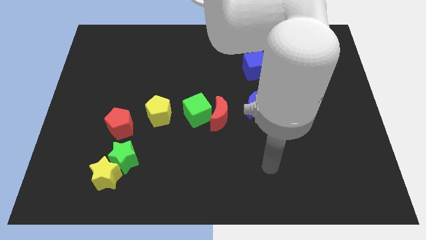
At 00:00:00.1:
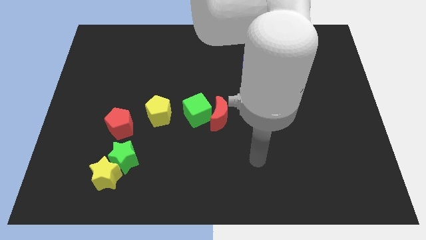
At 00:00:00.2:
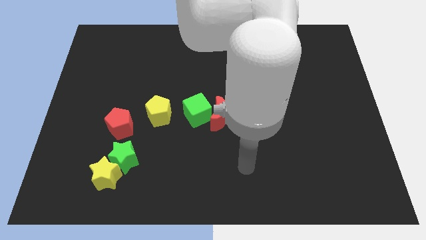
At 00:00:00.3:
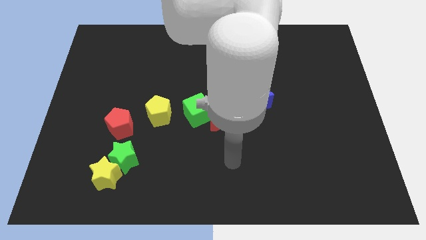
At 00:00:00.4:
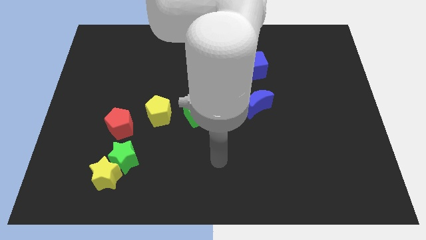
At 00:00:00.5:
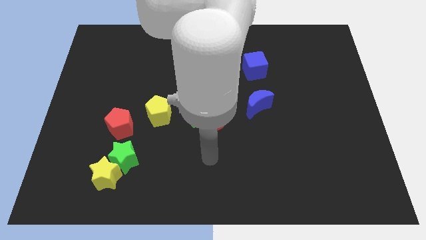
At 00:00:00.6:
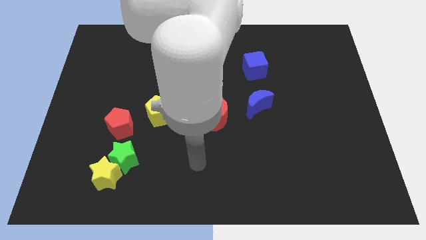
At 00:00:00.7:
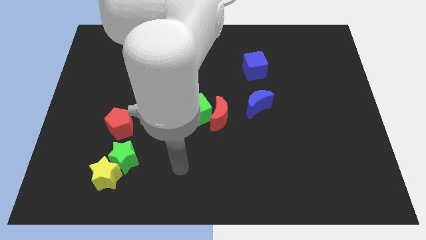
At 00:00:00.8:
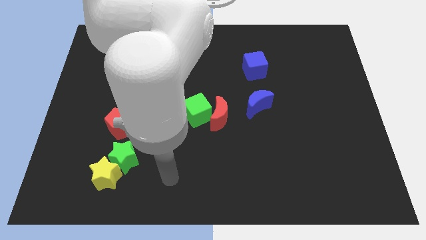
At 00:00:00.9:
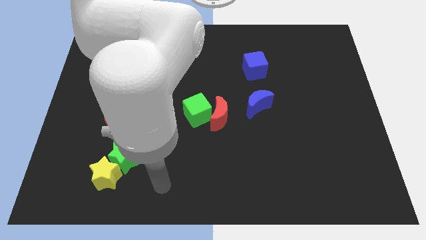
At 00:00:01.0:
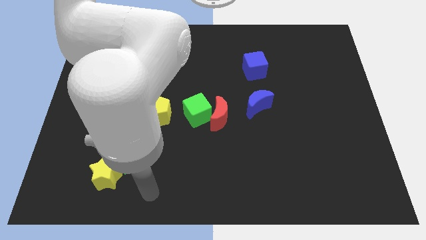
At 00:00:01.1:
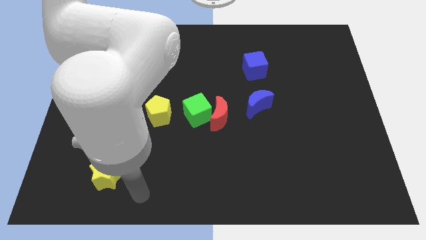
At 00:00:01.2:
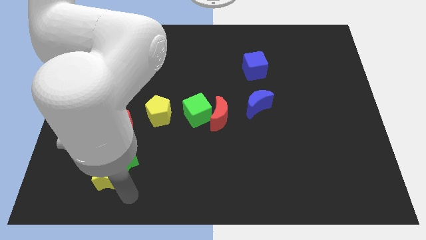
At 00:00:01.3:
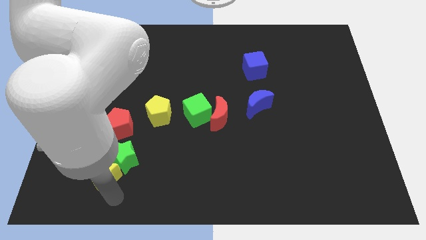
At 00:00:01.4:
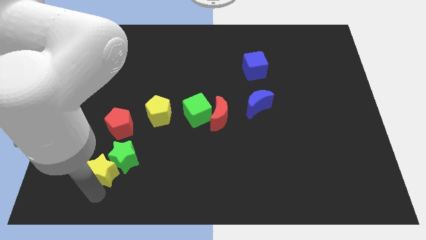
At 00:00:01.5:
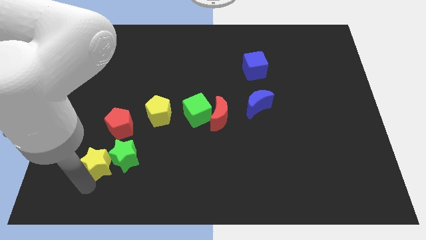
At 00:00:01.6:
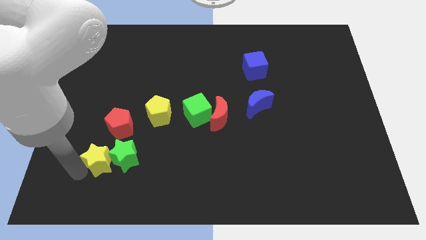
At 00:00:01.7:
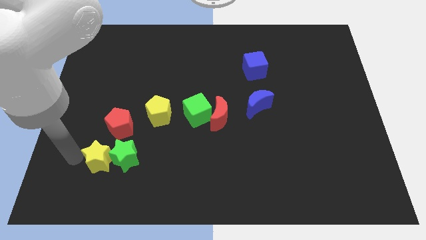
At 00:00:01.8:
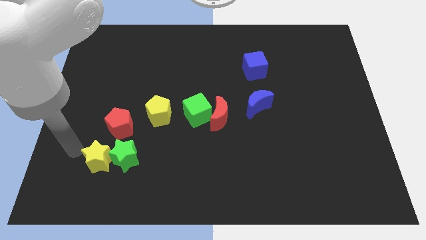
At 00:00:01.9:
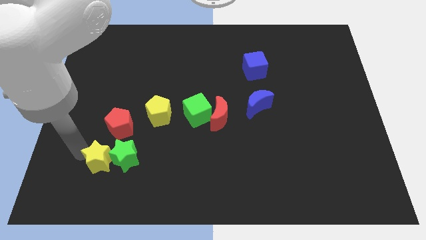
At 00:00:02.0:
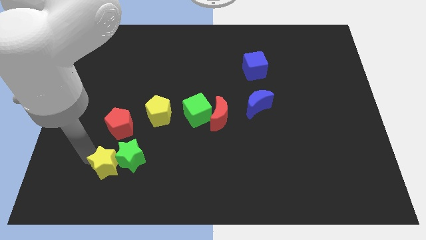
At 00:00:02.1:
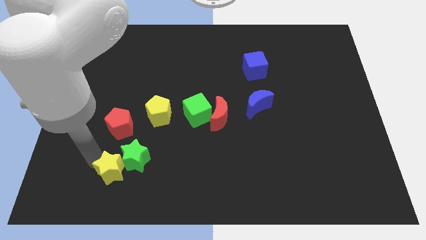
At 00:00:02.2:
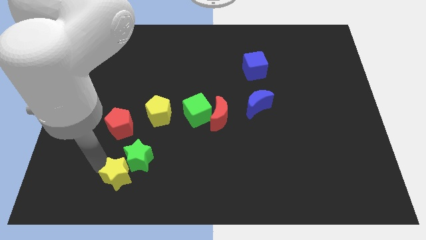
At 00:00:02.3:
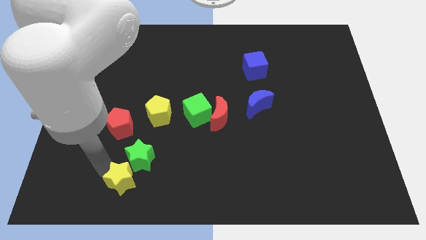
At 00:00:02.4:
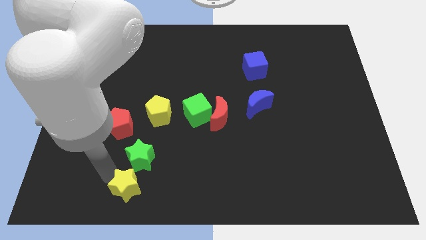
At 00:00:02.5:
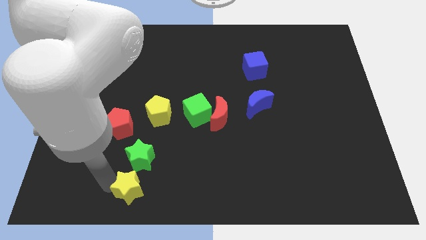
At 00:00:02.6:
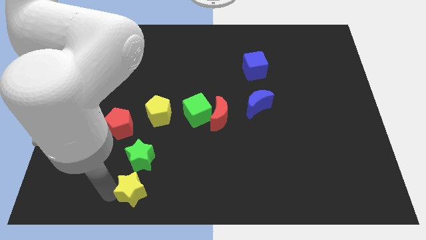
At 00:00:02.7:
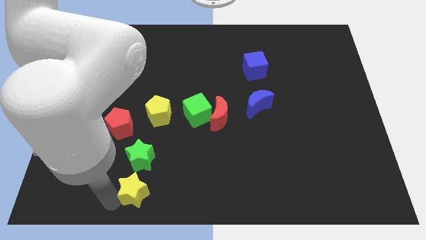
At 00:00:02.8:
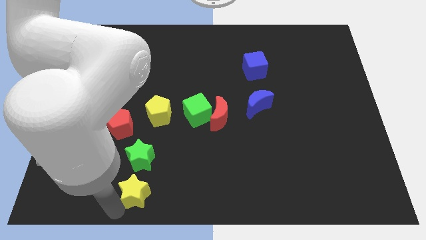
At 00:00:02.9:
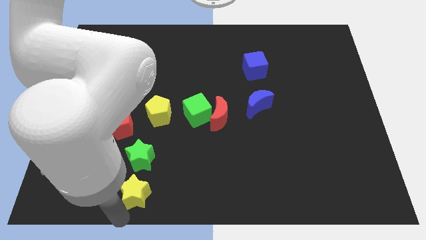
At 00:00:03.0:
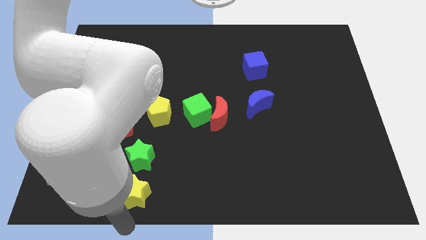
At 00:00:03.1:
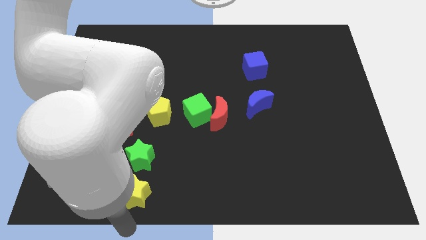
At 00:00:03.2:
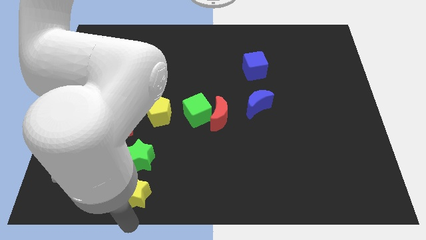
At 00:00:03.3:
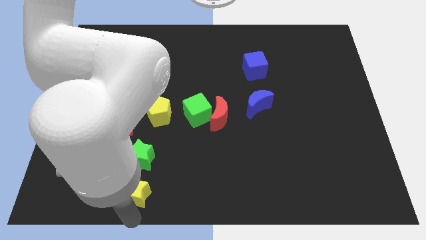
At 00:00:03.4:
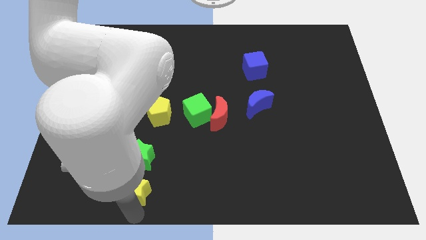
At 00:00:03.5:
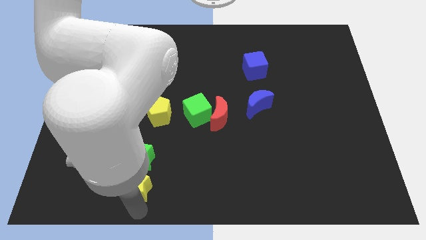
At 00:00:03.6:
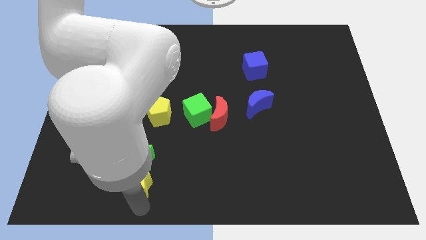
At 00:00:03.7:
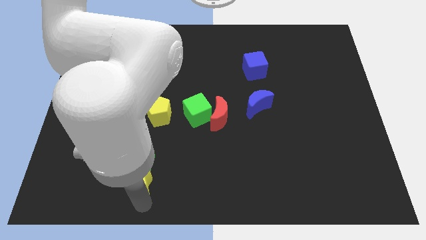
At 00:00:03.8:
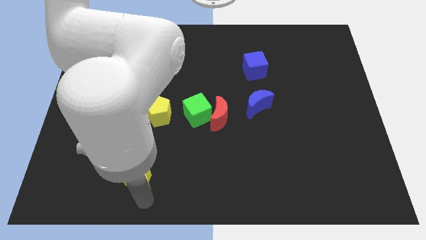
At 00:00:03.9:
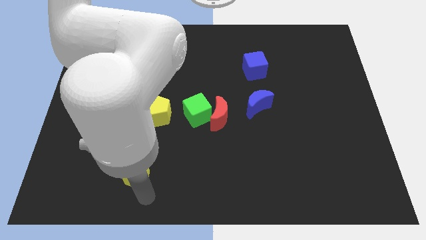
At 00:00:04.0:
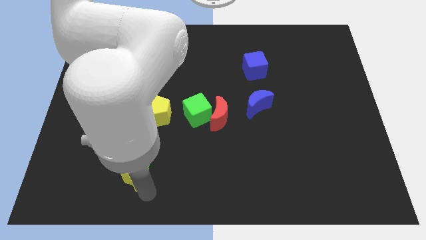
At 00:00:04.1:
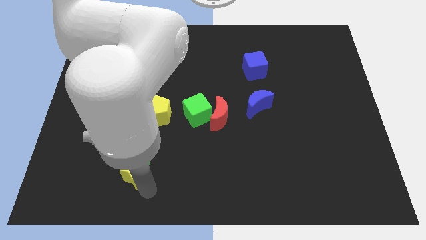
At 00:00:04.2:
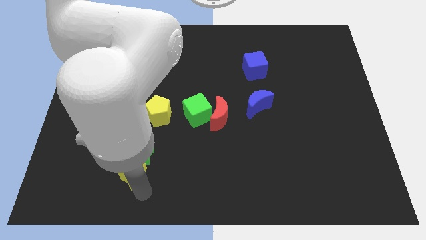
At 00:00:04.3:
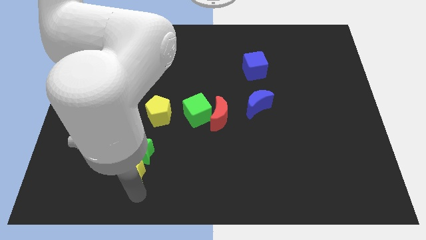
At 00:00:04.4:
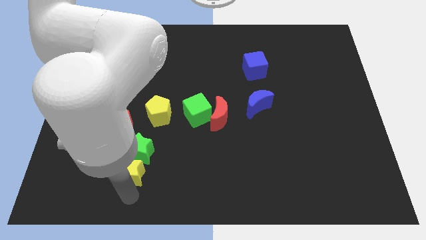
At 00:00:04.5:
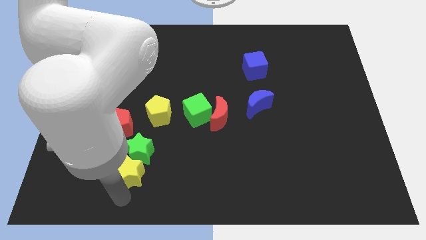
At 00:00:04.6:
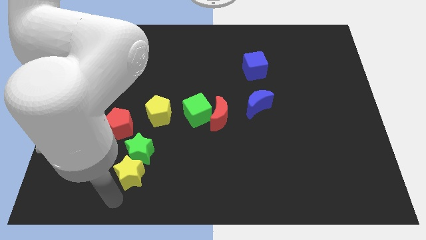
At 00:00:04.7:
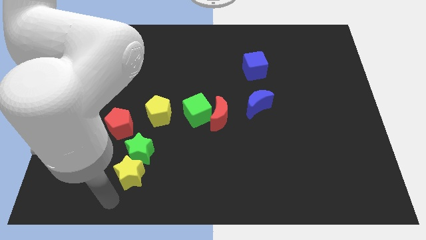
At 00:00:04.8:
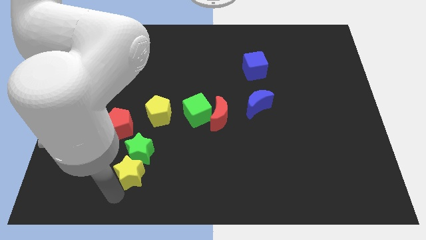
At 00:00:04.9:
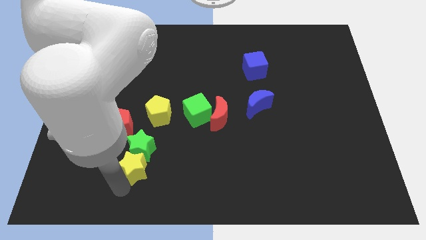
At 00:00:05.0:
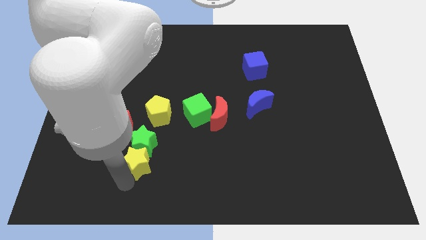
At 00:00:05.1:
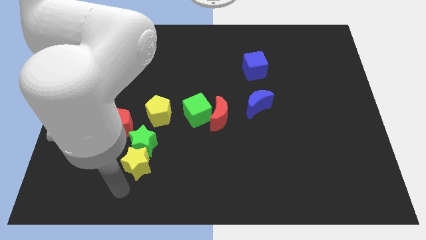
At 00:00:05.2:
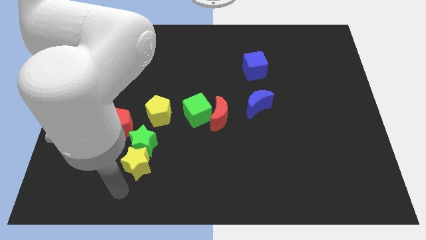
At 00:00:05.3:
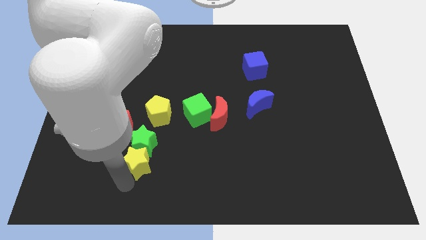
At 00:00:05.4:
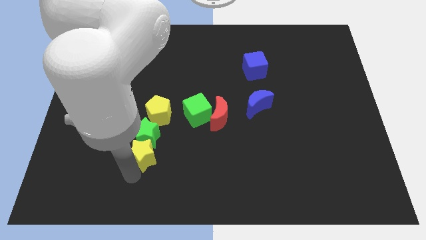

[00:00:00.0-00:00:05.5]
slightly move the yellow star upwards and to the right diagonally

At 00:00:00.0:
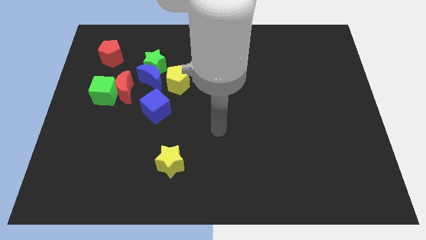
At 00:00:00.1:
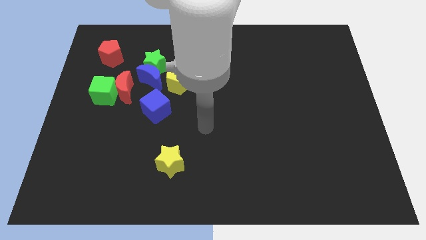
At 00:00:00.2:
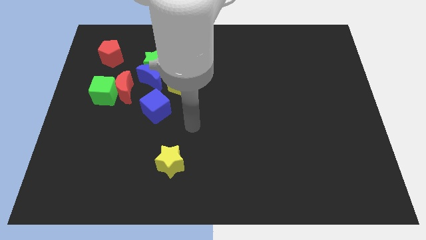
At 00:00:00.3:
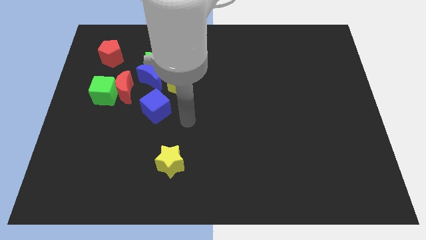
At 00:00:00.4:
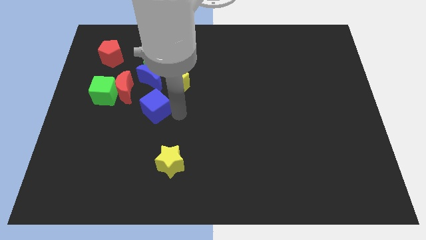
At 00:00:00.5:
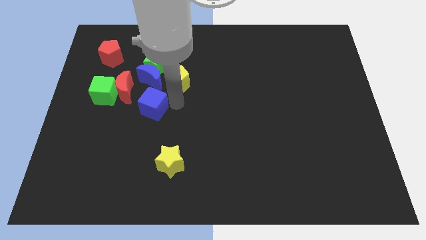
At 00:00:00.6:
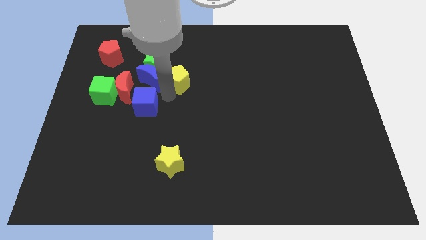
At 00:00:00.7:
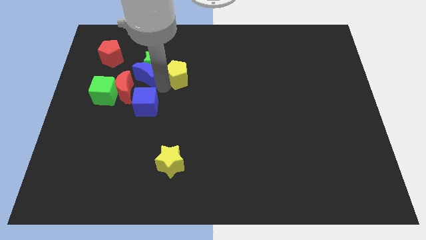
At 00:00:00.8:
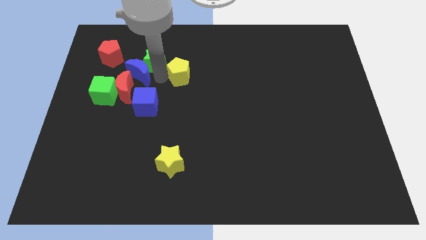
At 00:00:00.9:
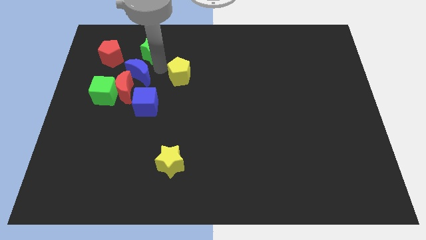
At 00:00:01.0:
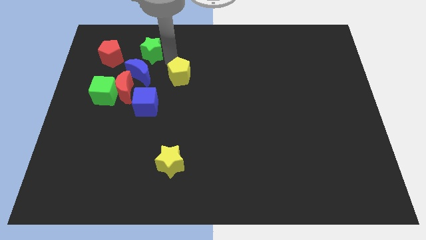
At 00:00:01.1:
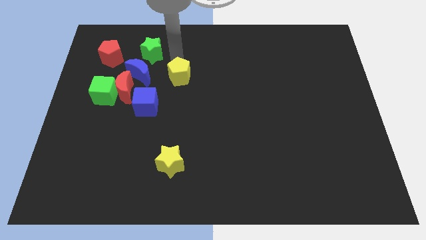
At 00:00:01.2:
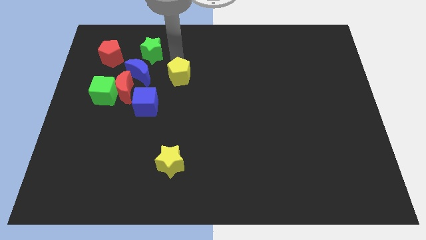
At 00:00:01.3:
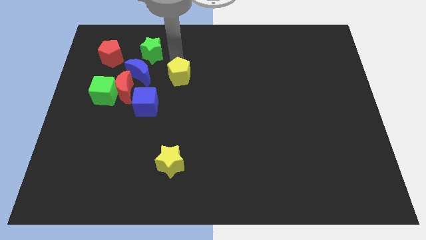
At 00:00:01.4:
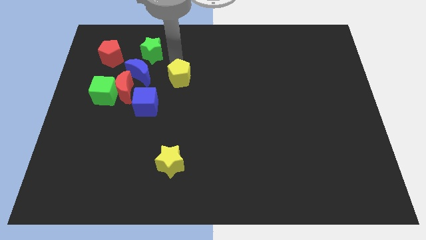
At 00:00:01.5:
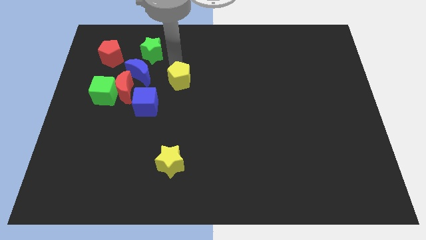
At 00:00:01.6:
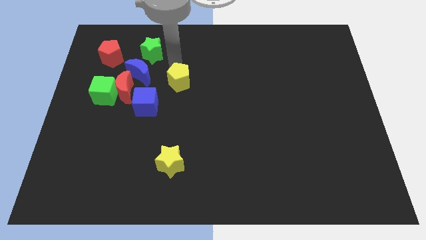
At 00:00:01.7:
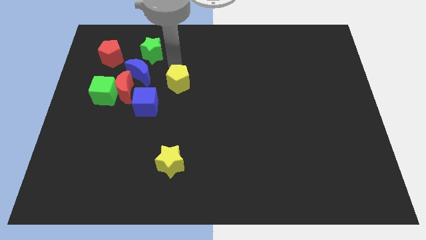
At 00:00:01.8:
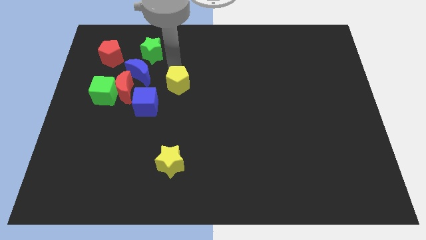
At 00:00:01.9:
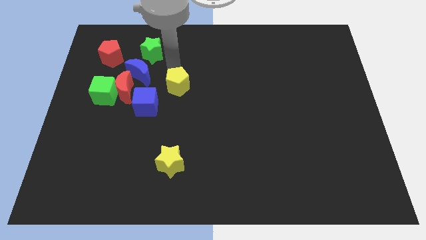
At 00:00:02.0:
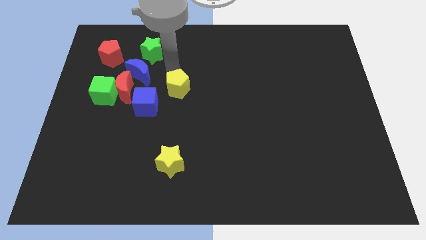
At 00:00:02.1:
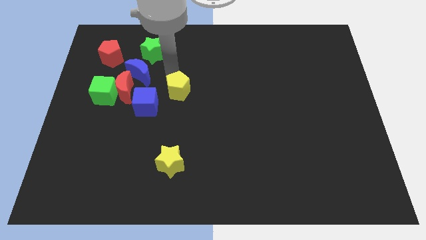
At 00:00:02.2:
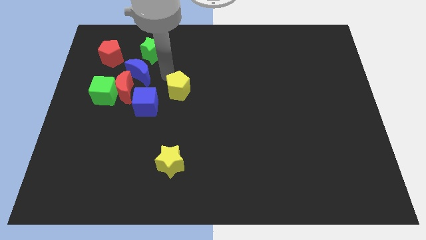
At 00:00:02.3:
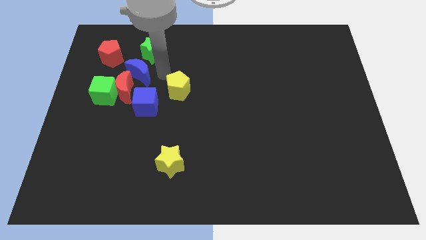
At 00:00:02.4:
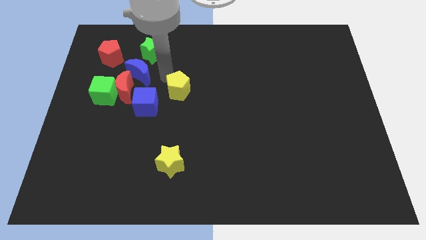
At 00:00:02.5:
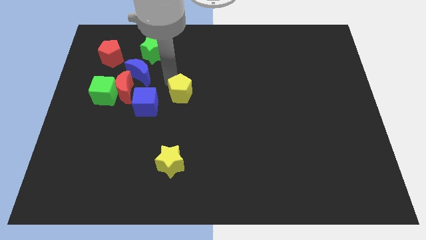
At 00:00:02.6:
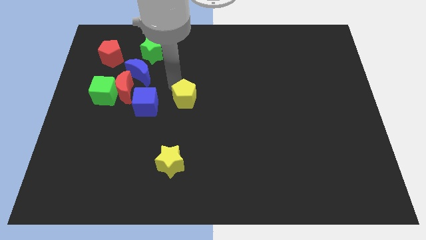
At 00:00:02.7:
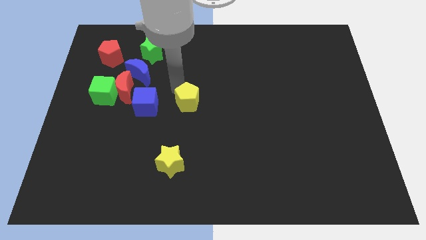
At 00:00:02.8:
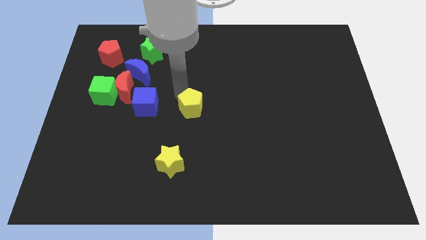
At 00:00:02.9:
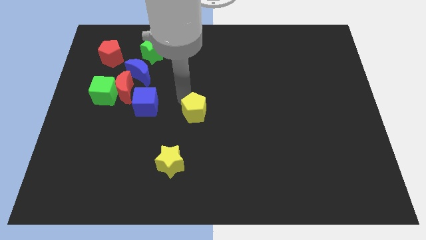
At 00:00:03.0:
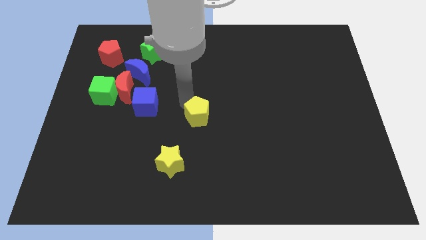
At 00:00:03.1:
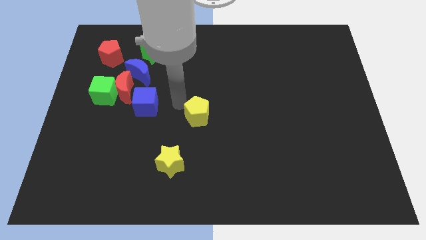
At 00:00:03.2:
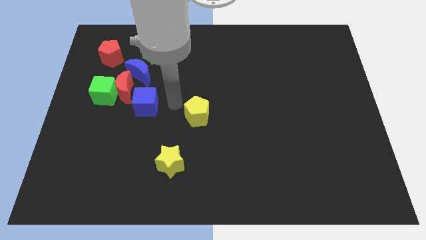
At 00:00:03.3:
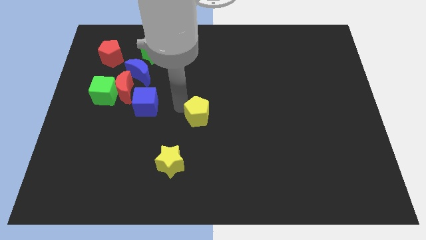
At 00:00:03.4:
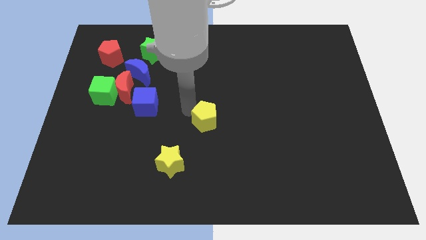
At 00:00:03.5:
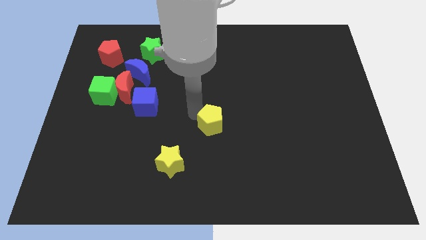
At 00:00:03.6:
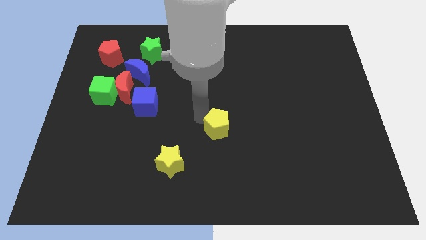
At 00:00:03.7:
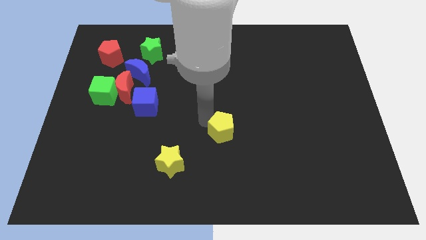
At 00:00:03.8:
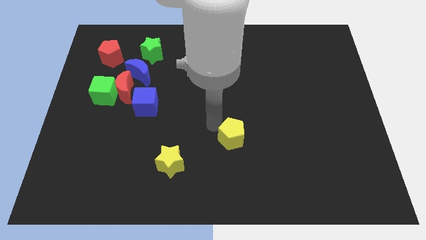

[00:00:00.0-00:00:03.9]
move the yellow pentagon downwards and right diagonally
